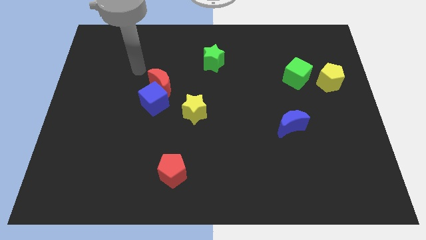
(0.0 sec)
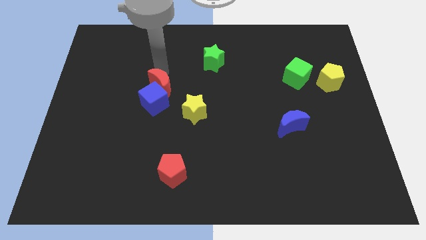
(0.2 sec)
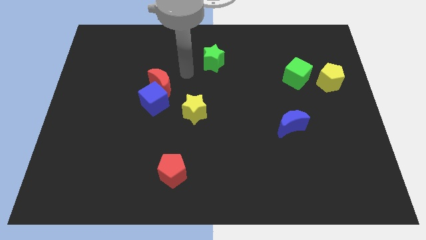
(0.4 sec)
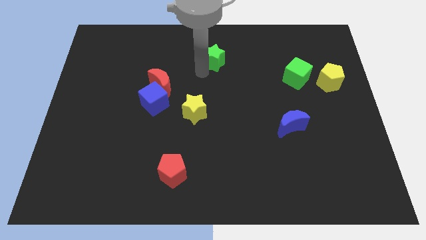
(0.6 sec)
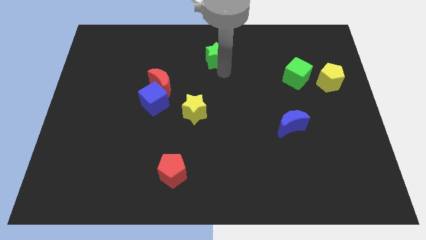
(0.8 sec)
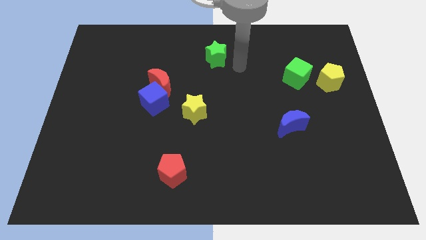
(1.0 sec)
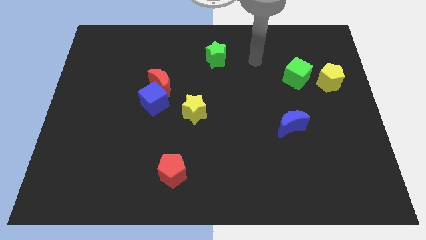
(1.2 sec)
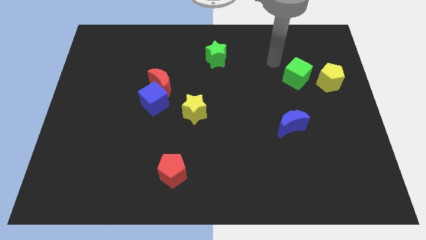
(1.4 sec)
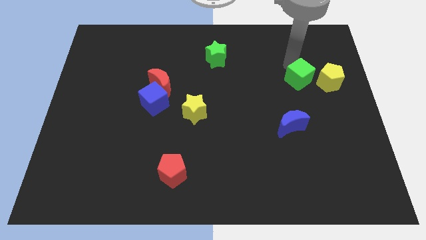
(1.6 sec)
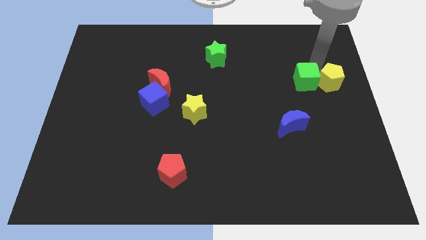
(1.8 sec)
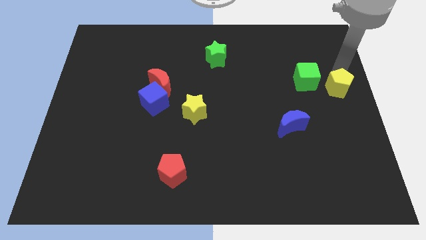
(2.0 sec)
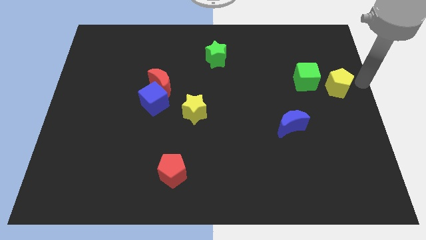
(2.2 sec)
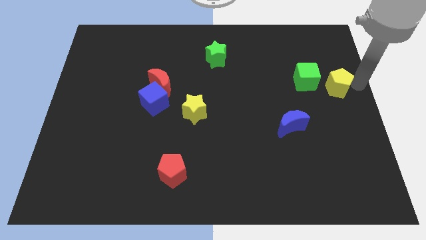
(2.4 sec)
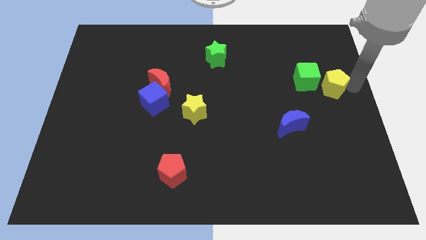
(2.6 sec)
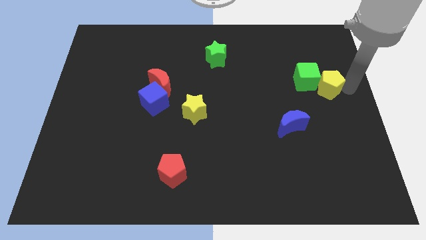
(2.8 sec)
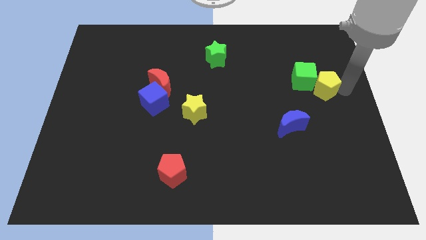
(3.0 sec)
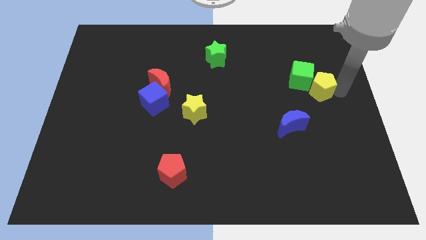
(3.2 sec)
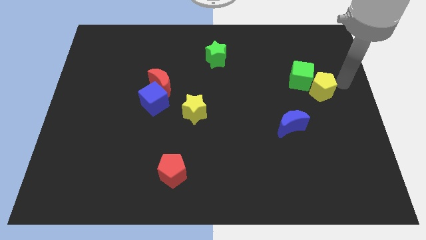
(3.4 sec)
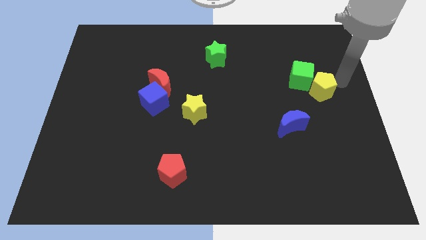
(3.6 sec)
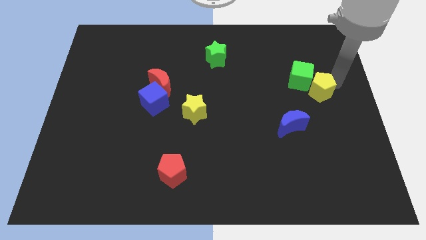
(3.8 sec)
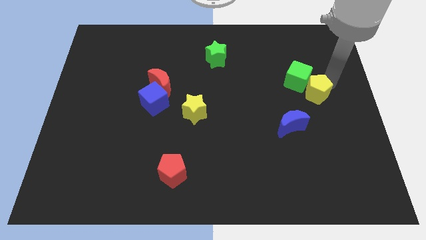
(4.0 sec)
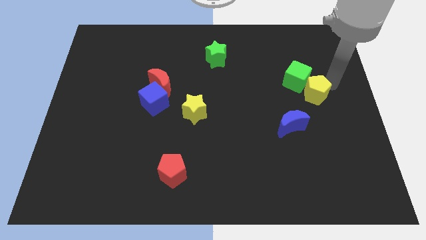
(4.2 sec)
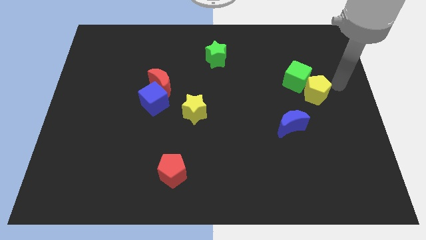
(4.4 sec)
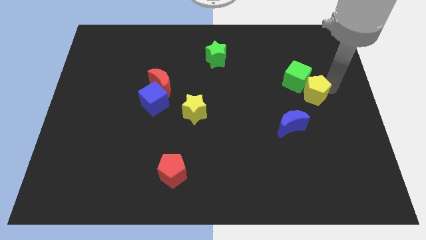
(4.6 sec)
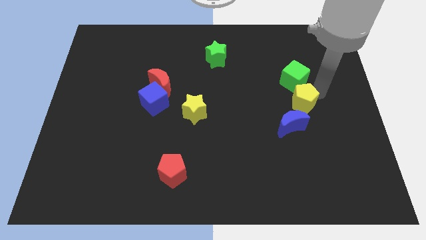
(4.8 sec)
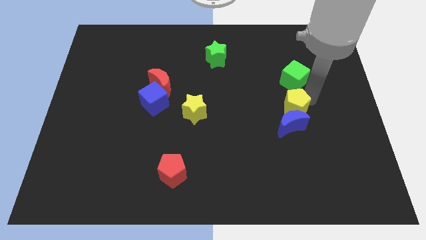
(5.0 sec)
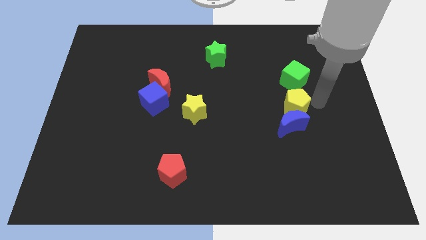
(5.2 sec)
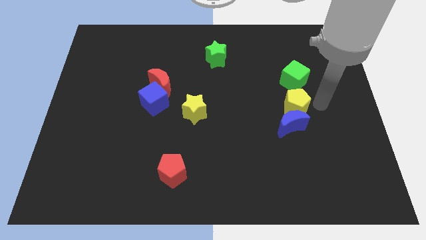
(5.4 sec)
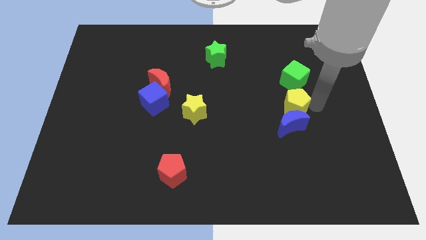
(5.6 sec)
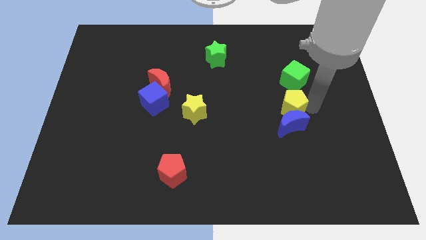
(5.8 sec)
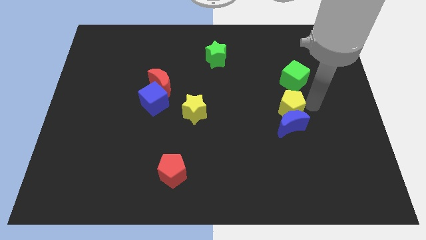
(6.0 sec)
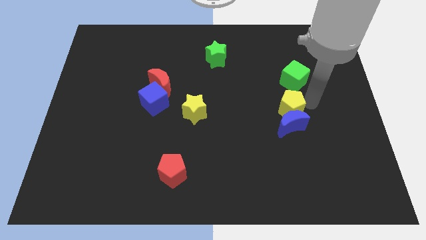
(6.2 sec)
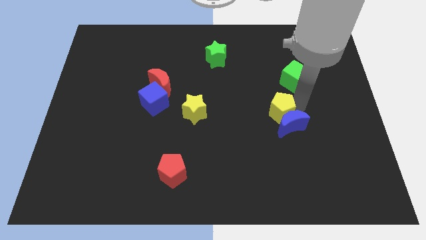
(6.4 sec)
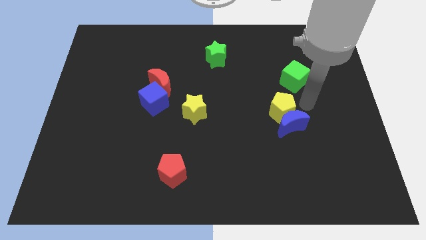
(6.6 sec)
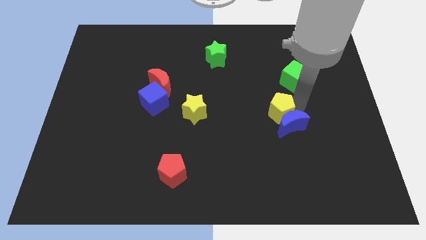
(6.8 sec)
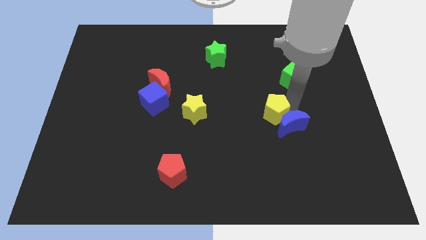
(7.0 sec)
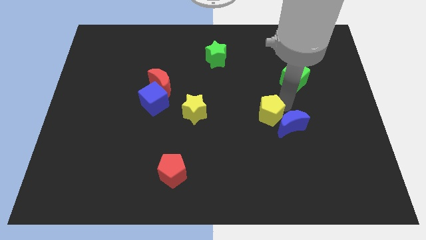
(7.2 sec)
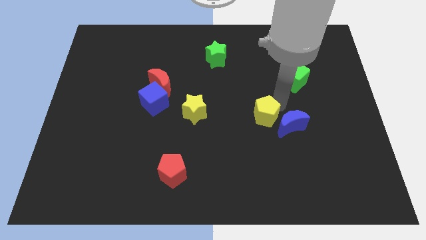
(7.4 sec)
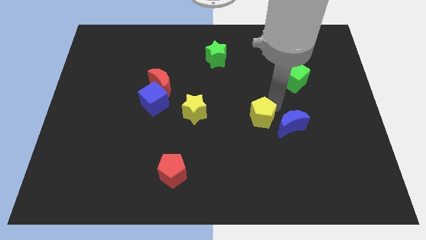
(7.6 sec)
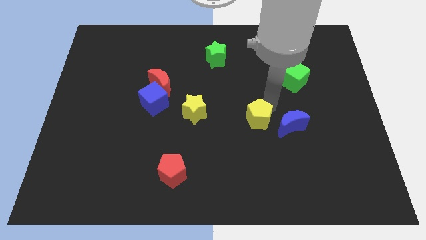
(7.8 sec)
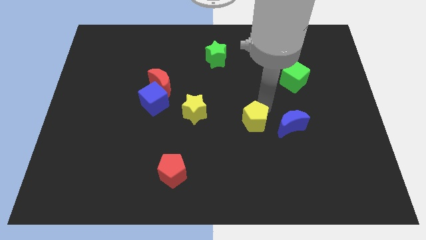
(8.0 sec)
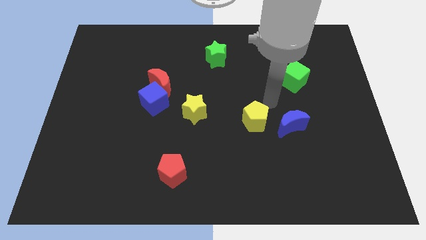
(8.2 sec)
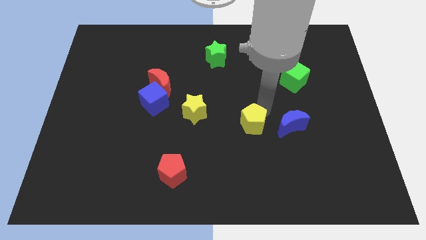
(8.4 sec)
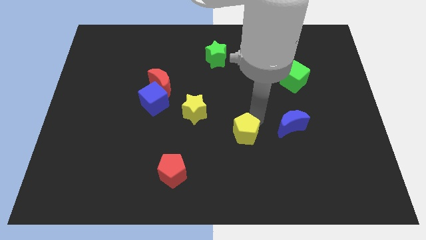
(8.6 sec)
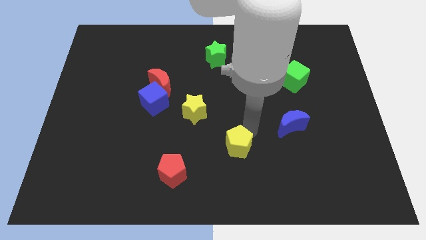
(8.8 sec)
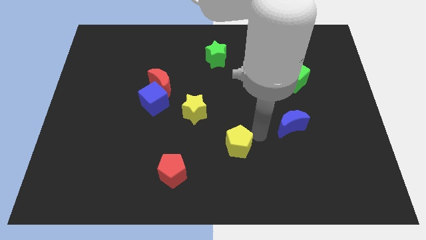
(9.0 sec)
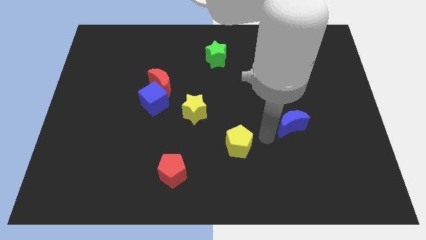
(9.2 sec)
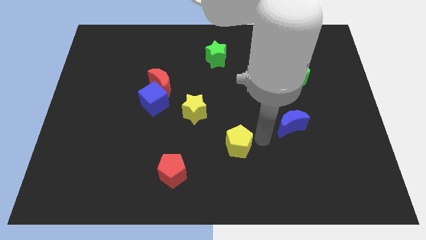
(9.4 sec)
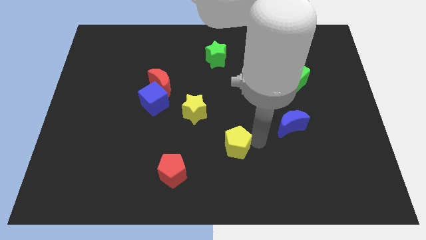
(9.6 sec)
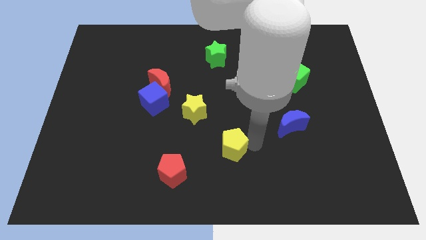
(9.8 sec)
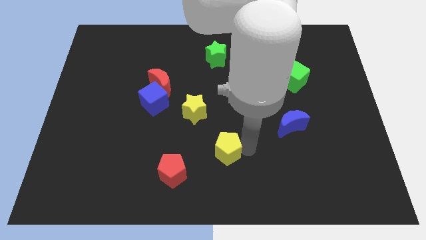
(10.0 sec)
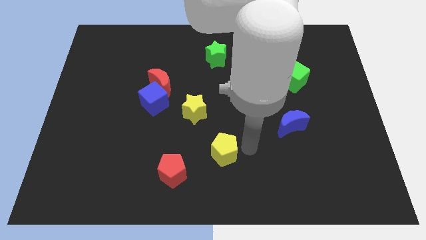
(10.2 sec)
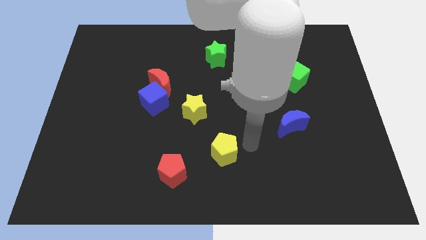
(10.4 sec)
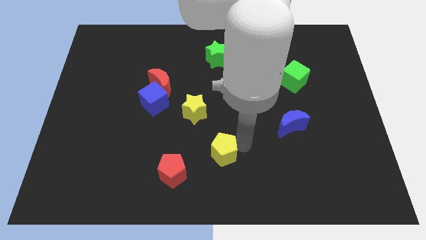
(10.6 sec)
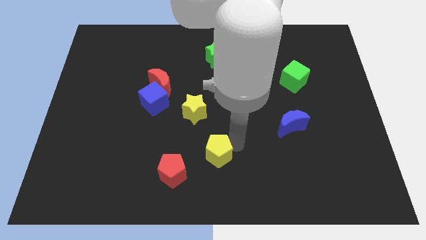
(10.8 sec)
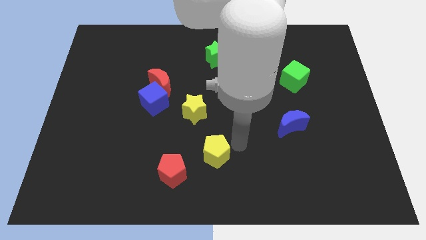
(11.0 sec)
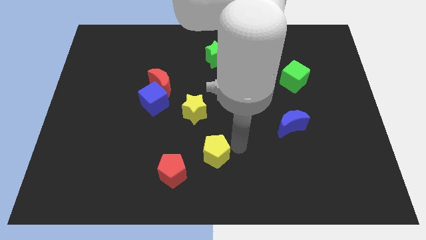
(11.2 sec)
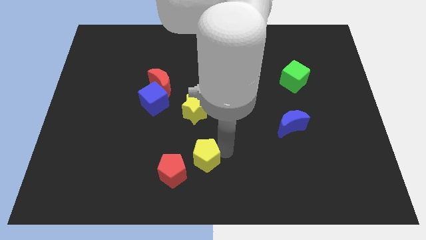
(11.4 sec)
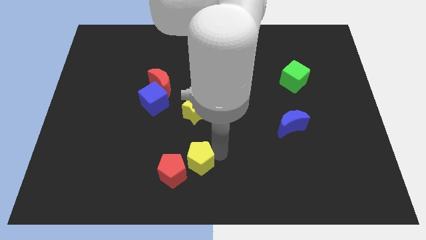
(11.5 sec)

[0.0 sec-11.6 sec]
put the yellow pentagon close to the red pentagon

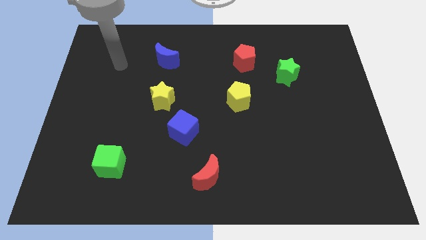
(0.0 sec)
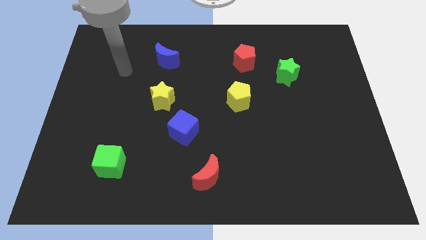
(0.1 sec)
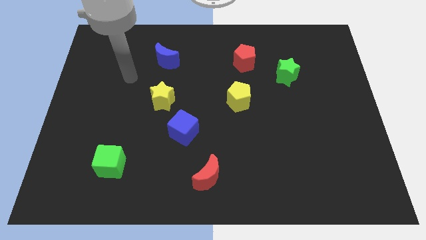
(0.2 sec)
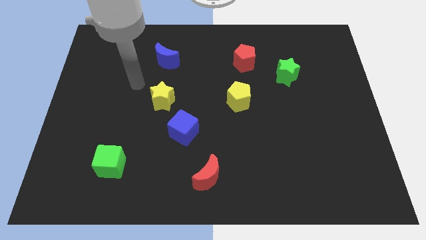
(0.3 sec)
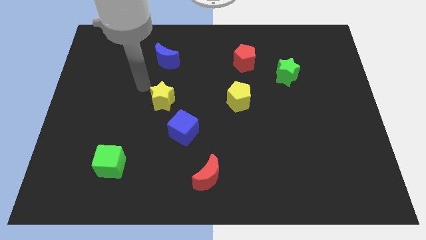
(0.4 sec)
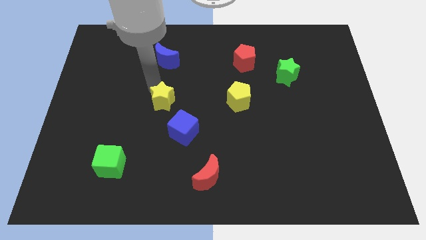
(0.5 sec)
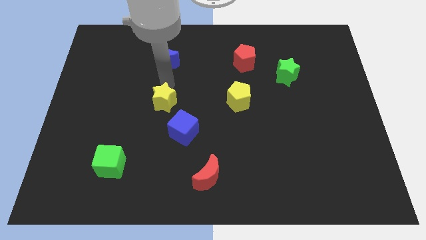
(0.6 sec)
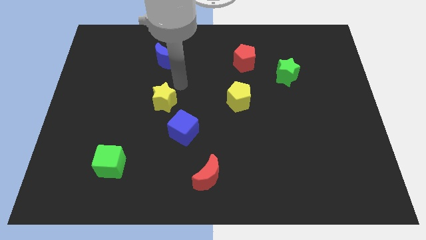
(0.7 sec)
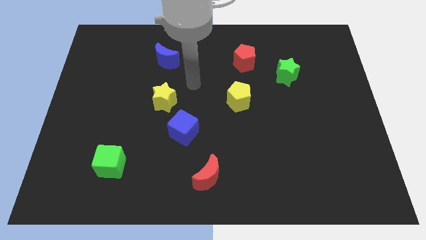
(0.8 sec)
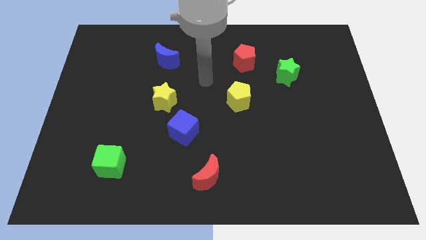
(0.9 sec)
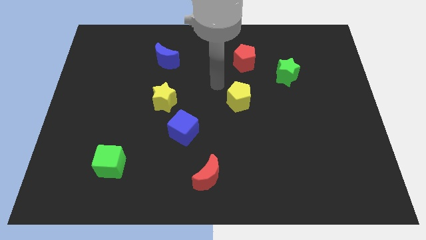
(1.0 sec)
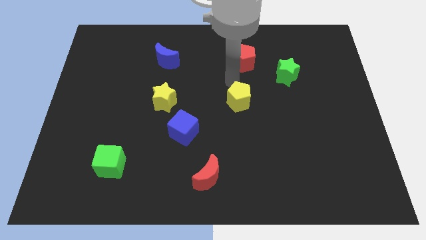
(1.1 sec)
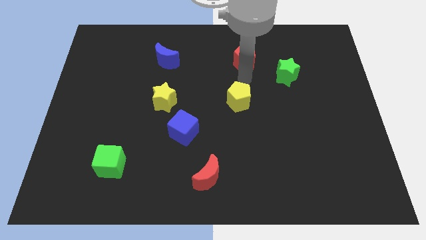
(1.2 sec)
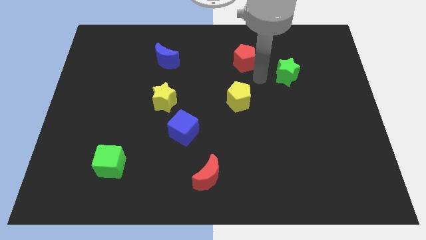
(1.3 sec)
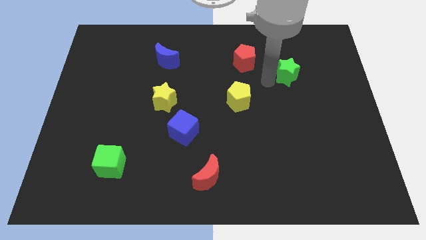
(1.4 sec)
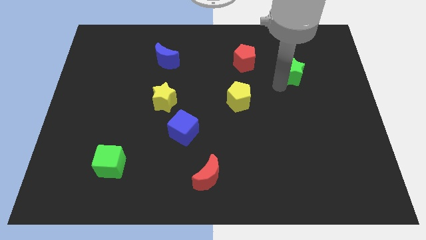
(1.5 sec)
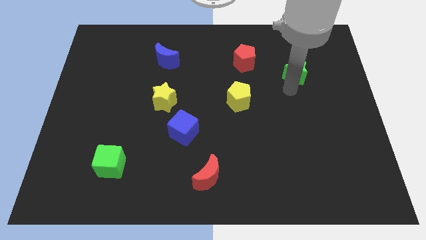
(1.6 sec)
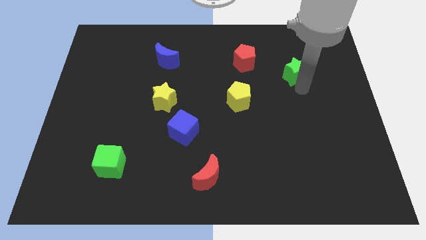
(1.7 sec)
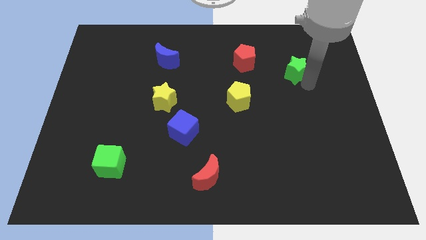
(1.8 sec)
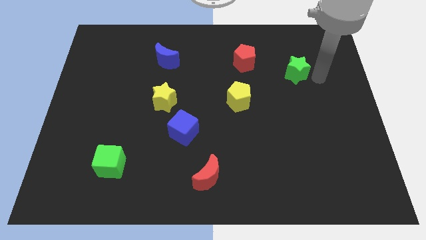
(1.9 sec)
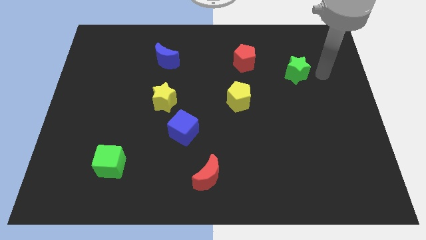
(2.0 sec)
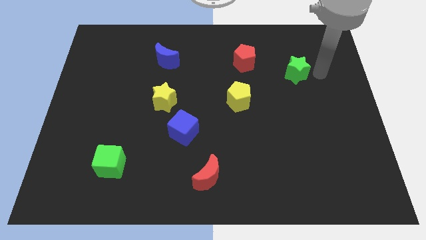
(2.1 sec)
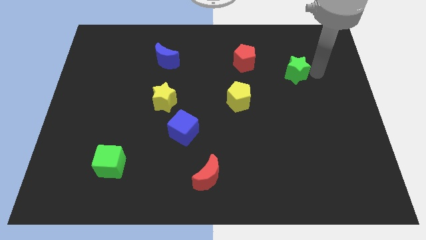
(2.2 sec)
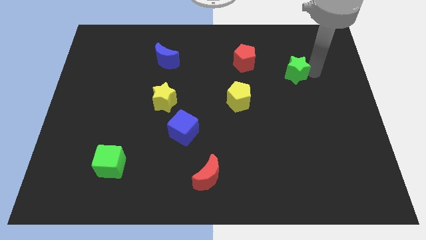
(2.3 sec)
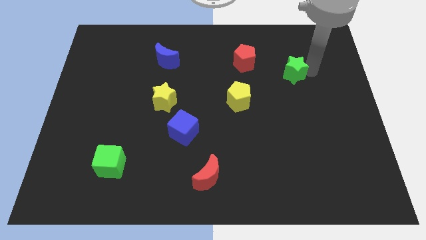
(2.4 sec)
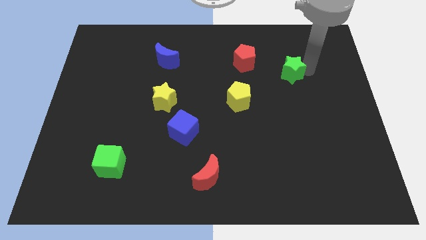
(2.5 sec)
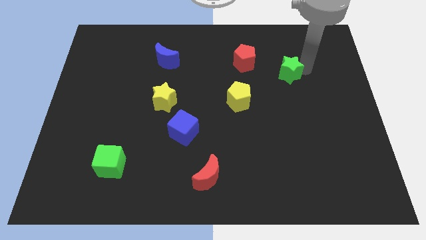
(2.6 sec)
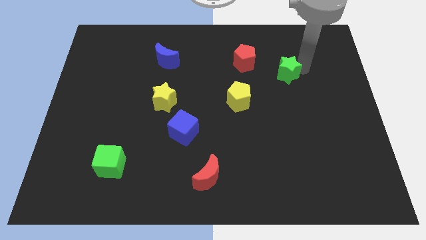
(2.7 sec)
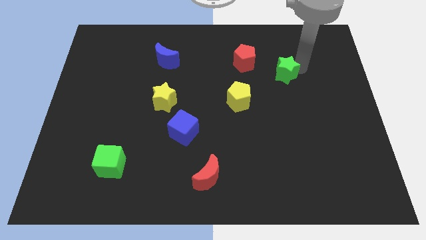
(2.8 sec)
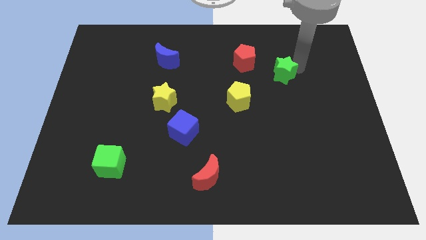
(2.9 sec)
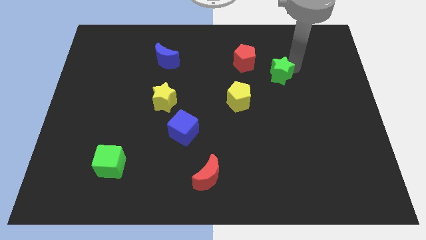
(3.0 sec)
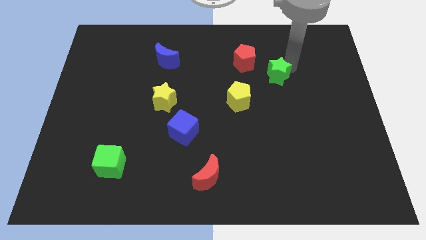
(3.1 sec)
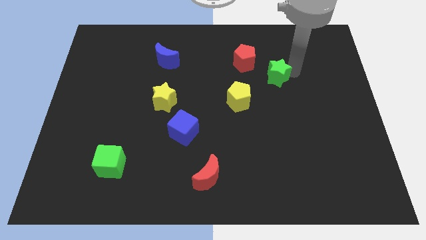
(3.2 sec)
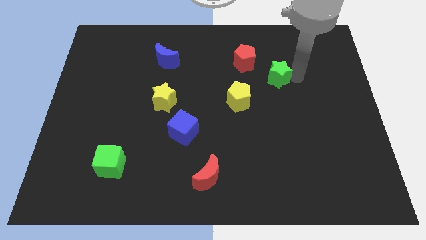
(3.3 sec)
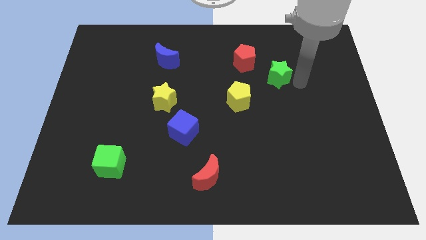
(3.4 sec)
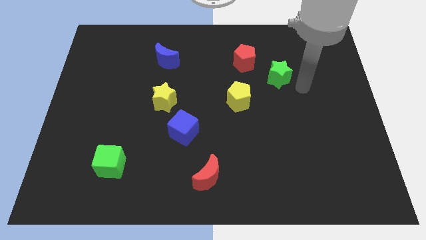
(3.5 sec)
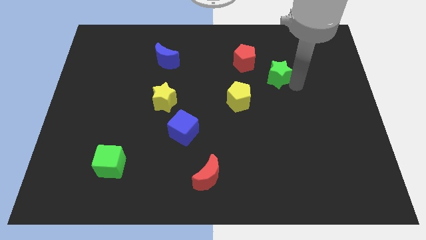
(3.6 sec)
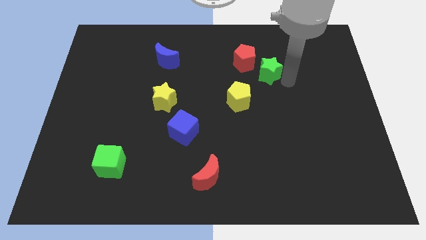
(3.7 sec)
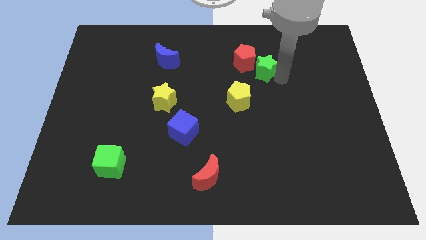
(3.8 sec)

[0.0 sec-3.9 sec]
slide the green star next to the red pentagon
